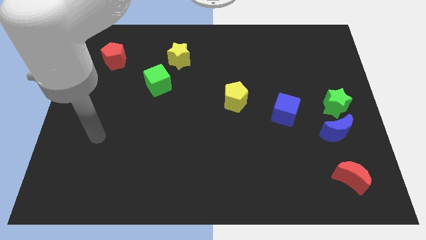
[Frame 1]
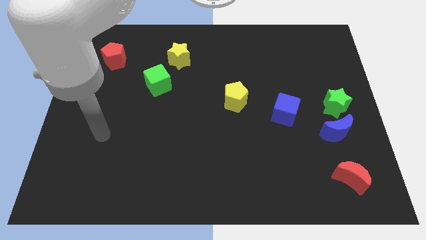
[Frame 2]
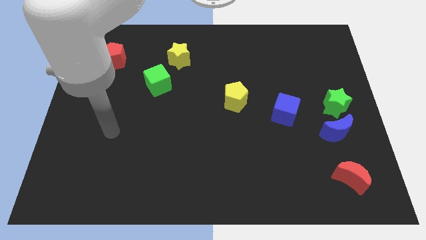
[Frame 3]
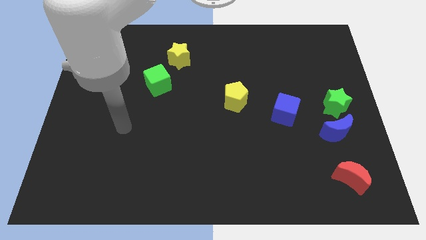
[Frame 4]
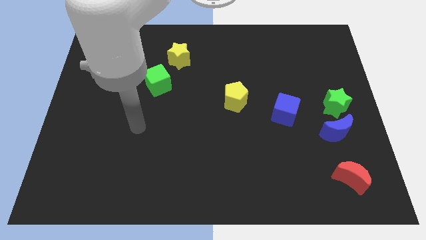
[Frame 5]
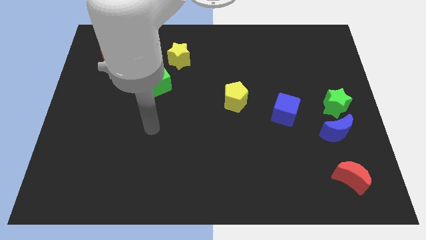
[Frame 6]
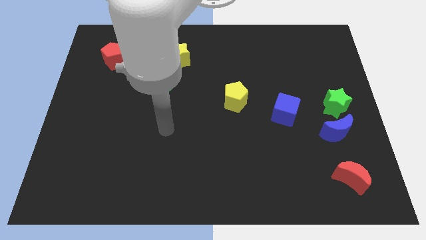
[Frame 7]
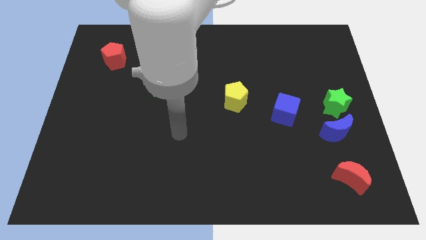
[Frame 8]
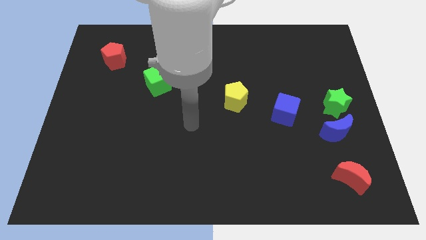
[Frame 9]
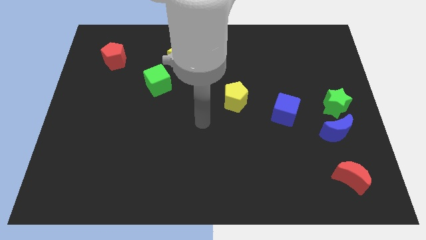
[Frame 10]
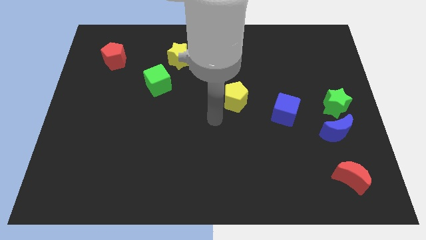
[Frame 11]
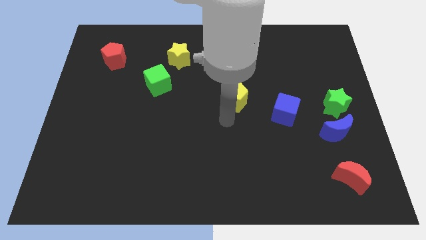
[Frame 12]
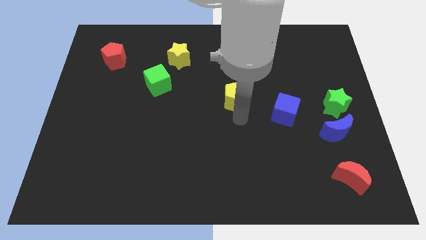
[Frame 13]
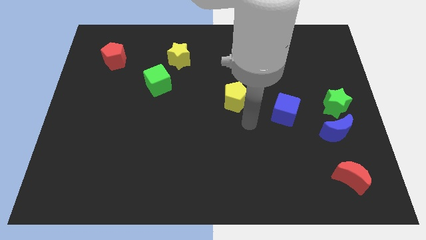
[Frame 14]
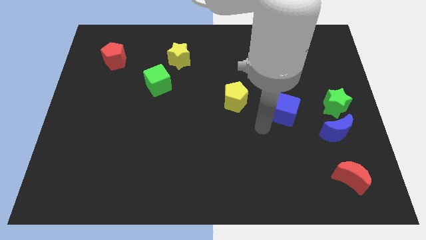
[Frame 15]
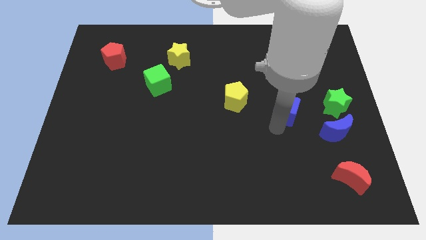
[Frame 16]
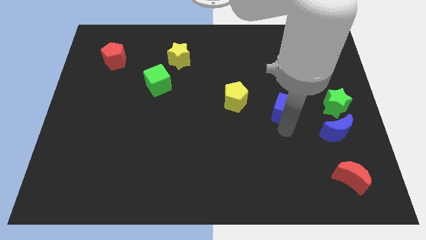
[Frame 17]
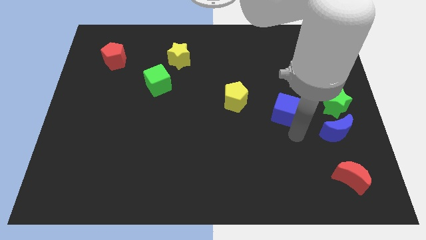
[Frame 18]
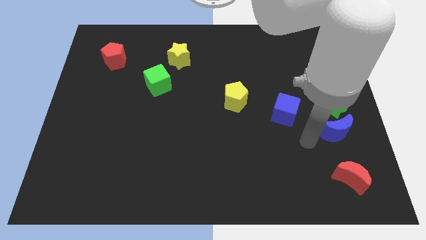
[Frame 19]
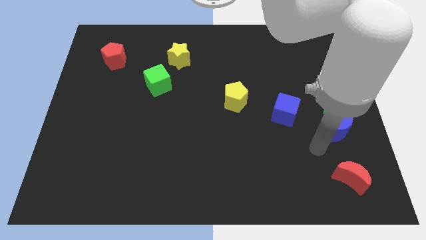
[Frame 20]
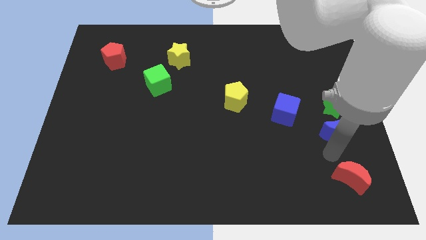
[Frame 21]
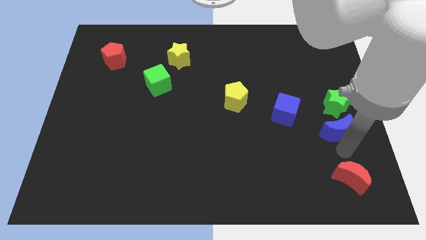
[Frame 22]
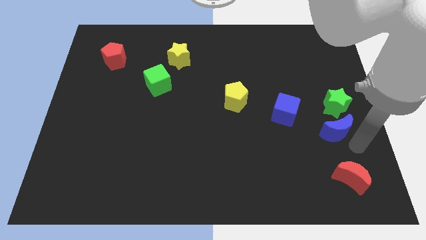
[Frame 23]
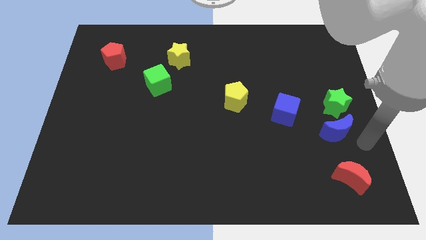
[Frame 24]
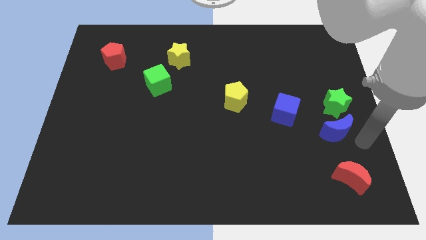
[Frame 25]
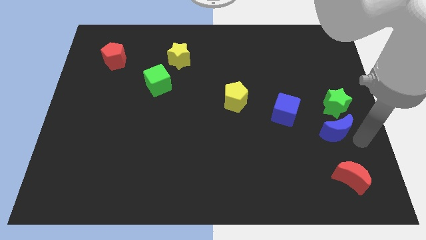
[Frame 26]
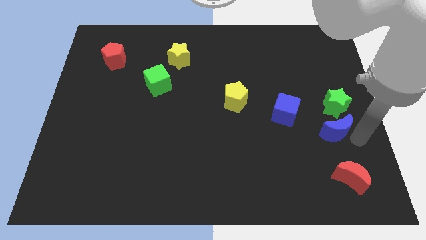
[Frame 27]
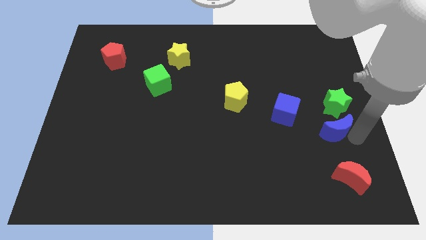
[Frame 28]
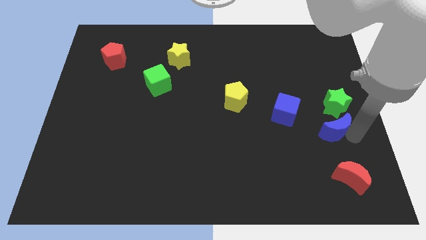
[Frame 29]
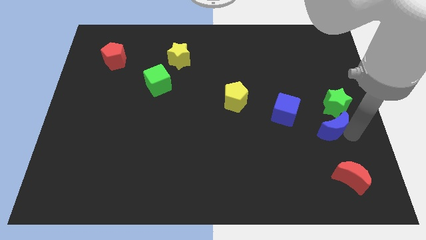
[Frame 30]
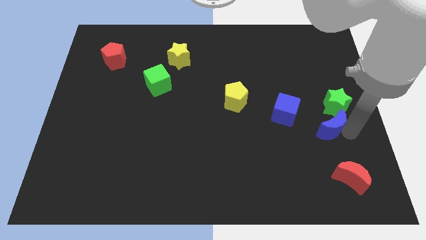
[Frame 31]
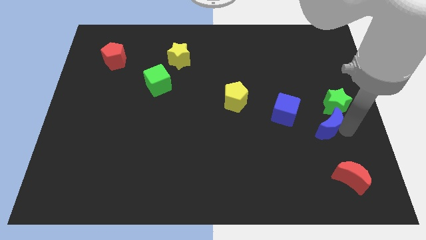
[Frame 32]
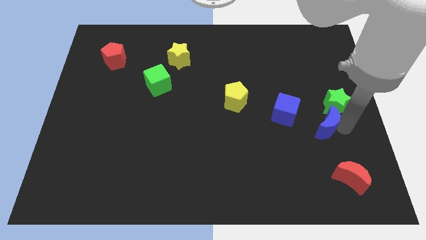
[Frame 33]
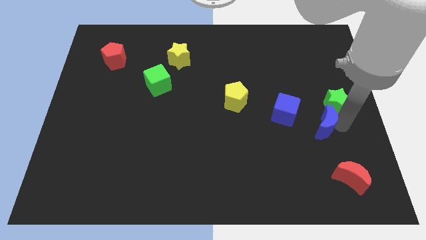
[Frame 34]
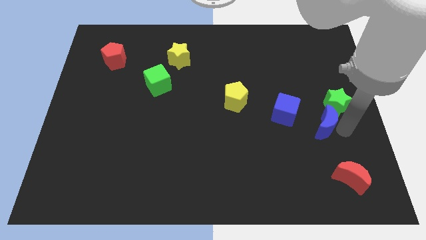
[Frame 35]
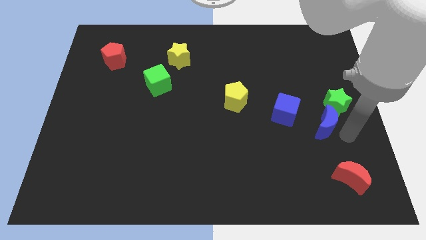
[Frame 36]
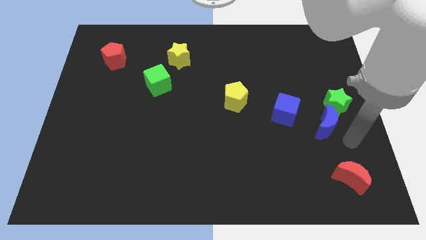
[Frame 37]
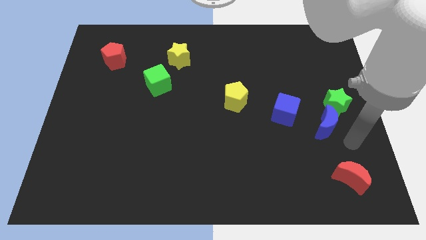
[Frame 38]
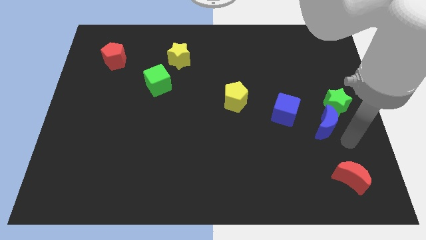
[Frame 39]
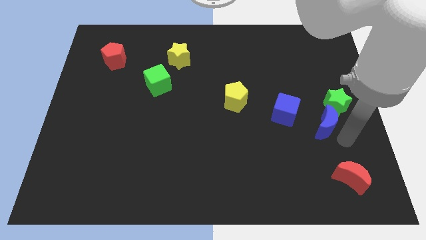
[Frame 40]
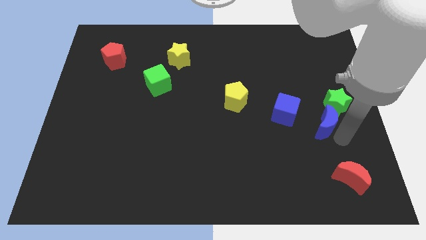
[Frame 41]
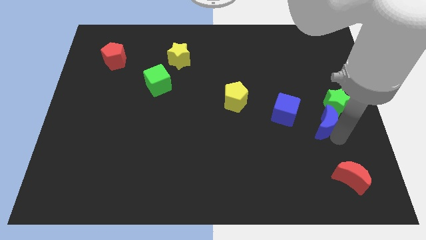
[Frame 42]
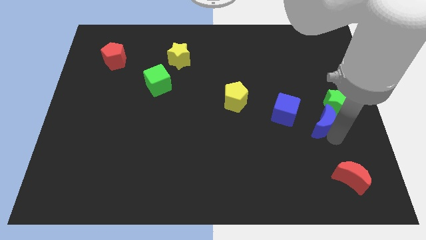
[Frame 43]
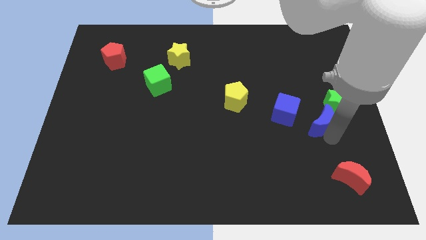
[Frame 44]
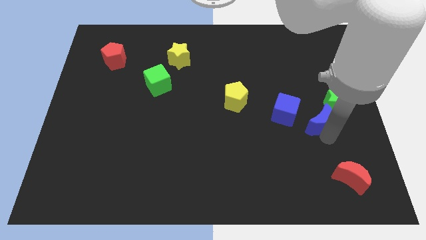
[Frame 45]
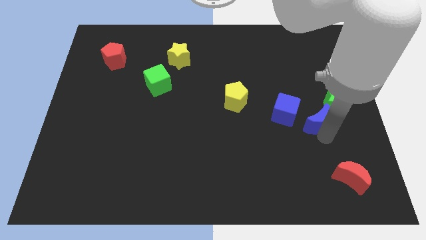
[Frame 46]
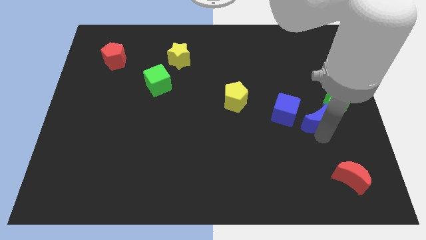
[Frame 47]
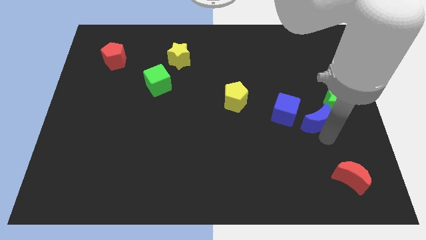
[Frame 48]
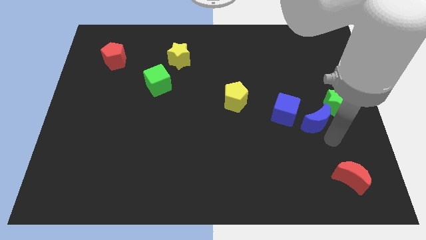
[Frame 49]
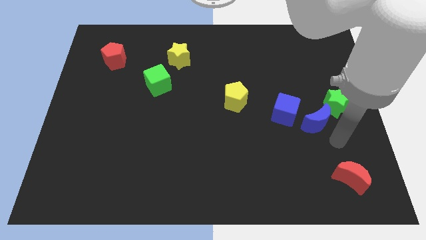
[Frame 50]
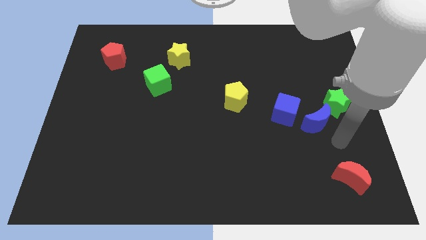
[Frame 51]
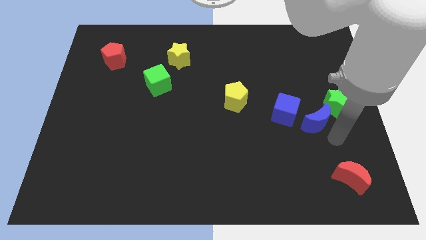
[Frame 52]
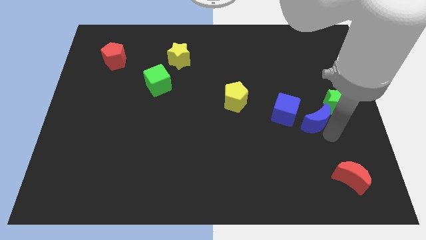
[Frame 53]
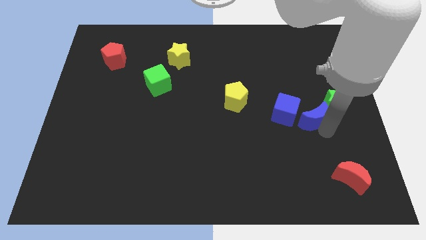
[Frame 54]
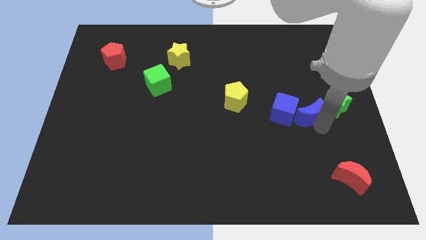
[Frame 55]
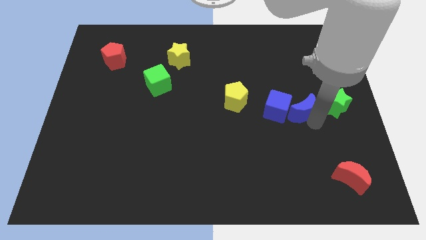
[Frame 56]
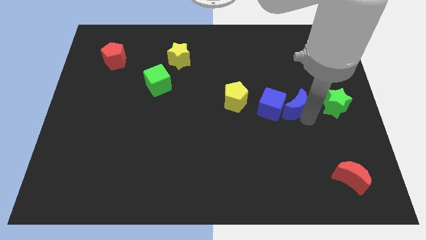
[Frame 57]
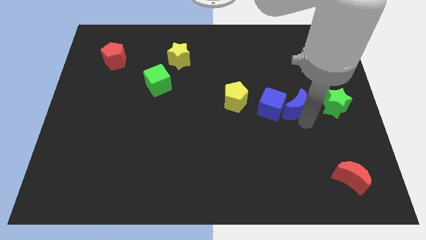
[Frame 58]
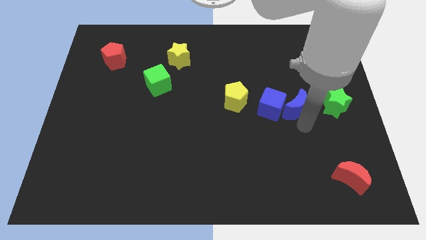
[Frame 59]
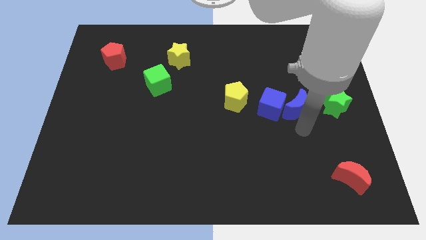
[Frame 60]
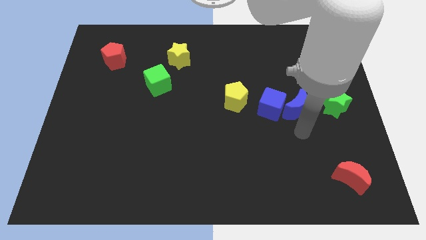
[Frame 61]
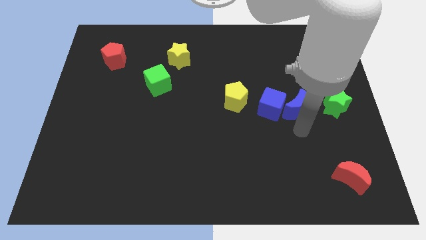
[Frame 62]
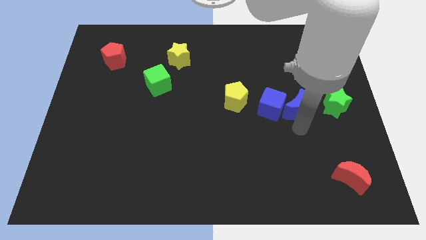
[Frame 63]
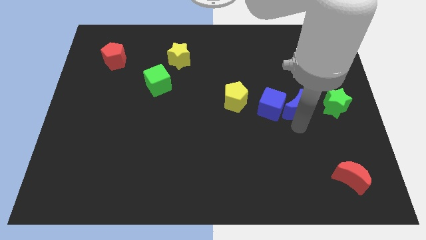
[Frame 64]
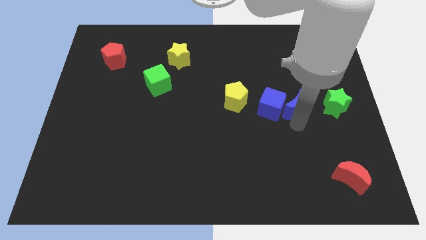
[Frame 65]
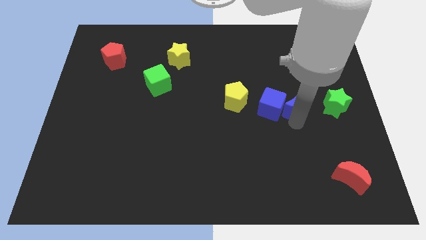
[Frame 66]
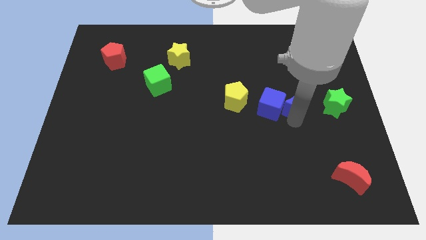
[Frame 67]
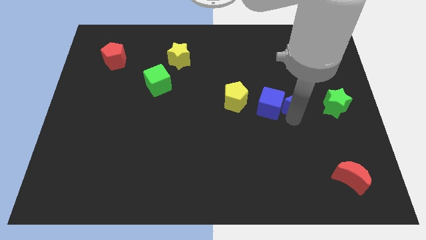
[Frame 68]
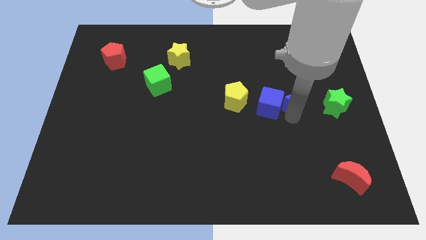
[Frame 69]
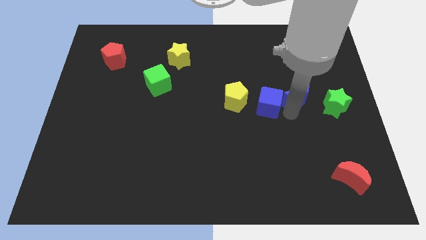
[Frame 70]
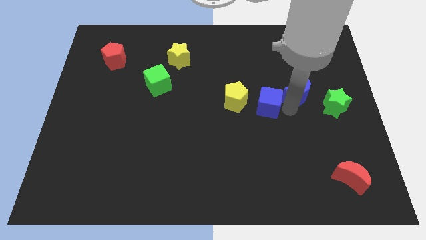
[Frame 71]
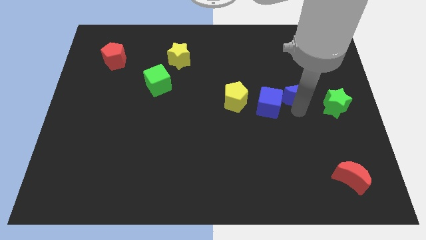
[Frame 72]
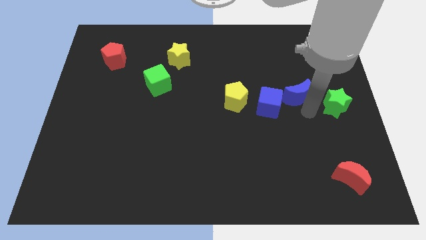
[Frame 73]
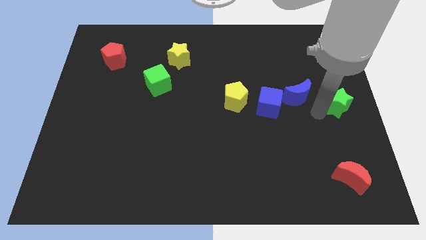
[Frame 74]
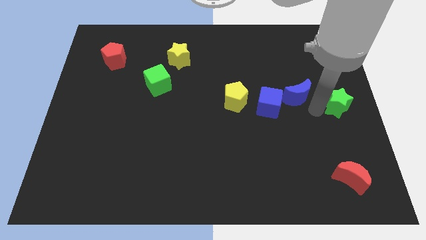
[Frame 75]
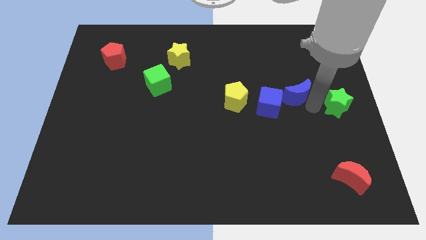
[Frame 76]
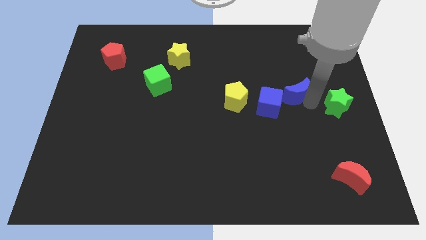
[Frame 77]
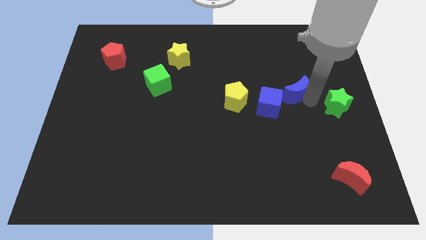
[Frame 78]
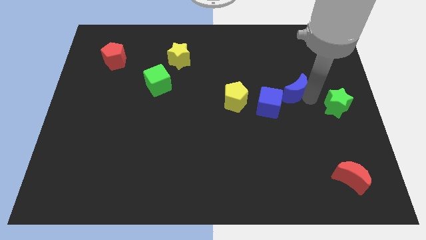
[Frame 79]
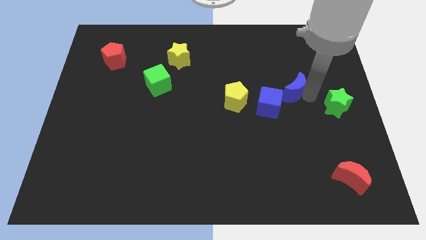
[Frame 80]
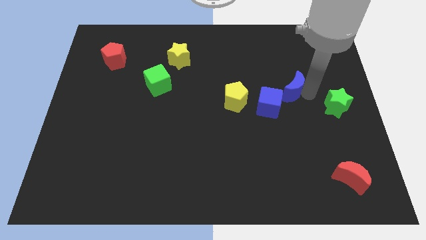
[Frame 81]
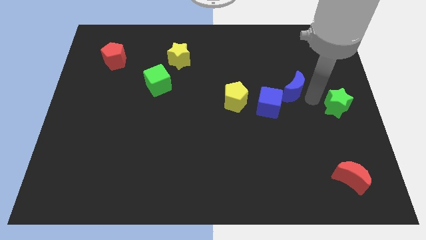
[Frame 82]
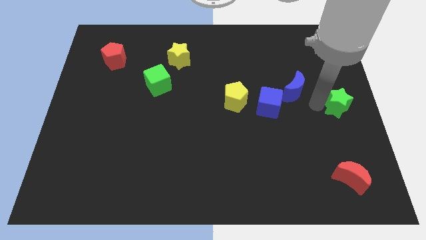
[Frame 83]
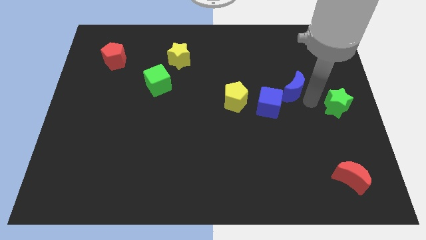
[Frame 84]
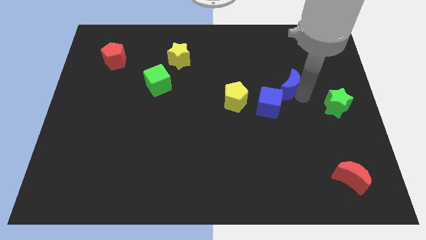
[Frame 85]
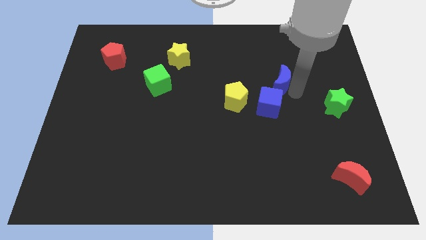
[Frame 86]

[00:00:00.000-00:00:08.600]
push the blue moon to the top of the blue cube
